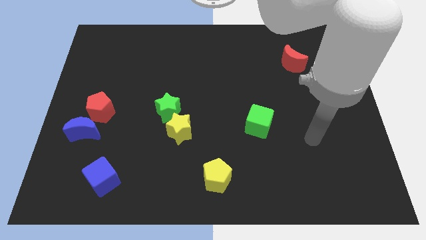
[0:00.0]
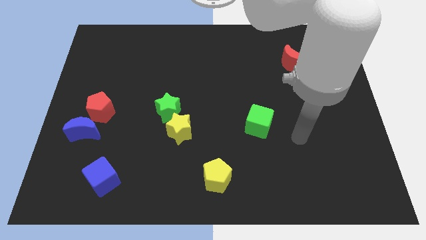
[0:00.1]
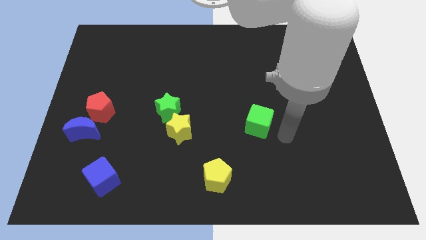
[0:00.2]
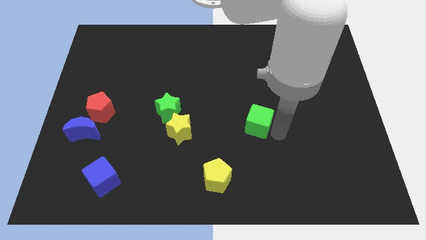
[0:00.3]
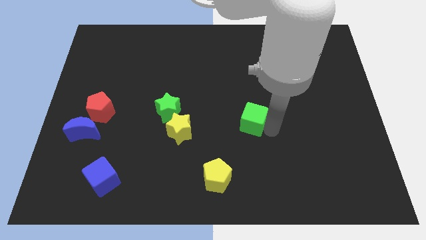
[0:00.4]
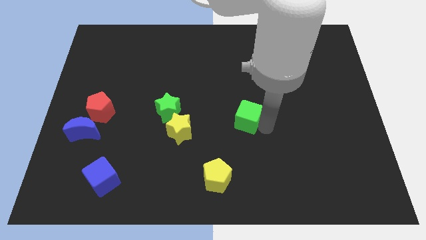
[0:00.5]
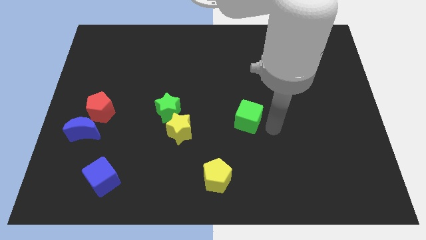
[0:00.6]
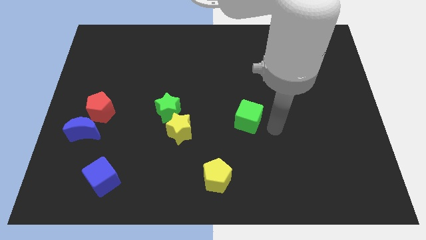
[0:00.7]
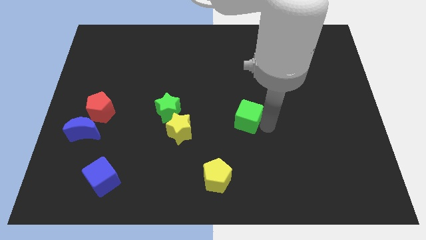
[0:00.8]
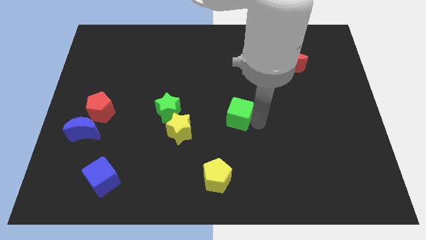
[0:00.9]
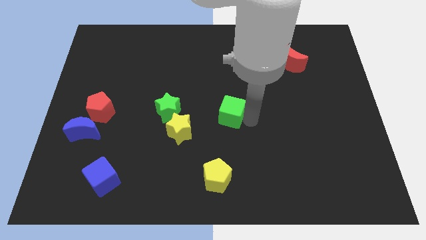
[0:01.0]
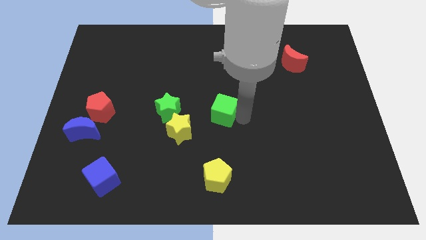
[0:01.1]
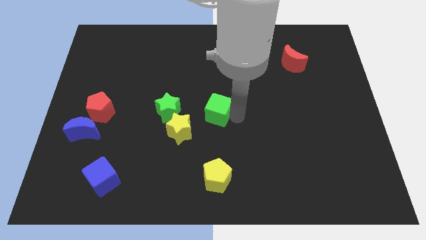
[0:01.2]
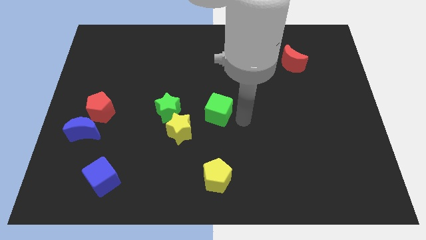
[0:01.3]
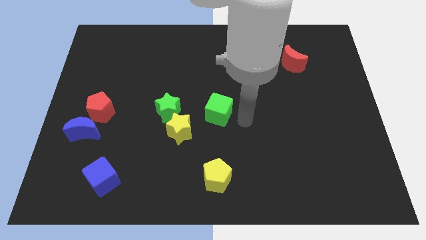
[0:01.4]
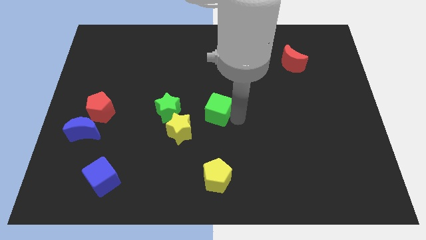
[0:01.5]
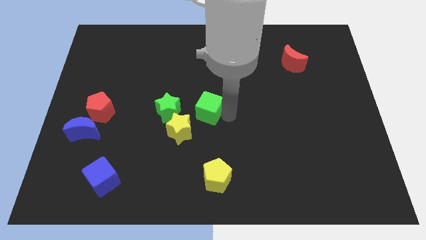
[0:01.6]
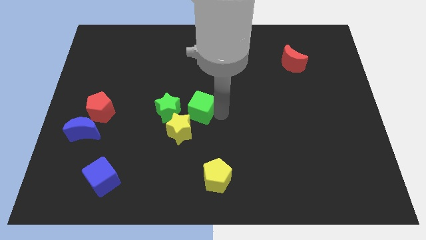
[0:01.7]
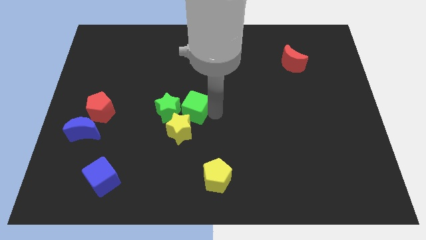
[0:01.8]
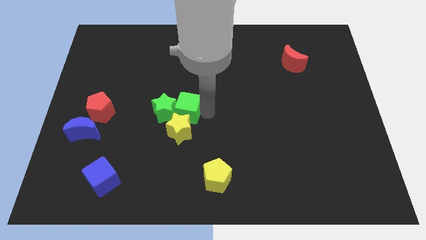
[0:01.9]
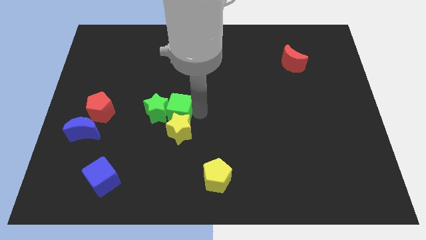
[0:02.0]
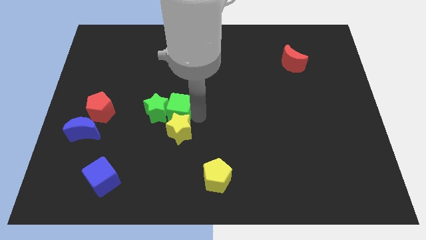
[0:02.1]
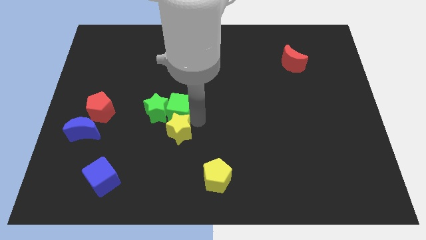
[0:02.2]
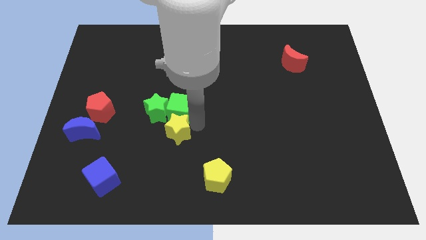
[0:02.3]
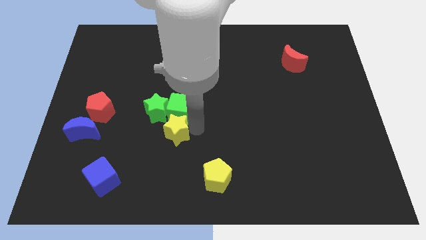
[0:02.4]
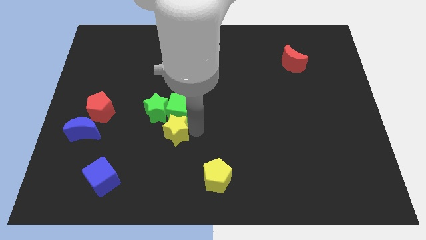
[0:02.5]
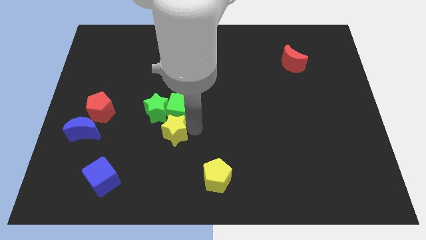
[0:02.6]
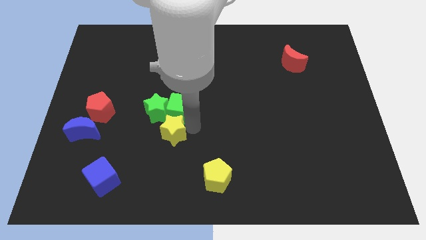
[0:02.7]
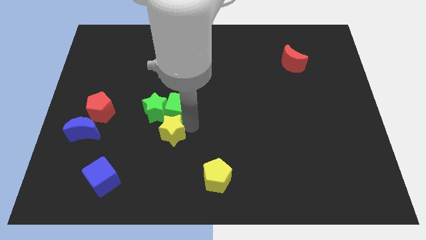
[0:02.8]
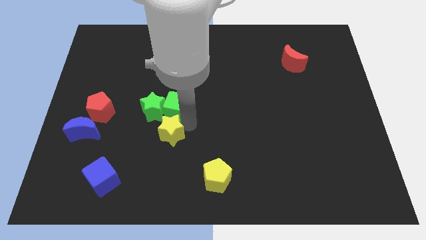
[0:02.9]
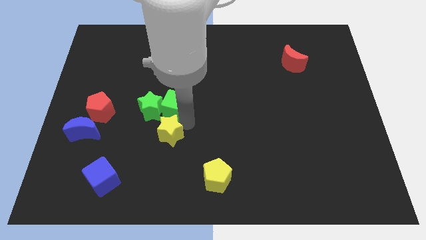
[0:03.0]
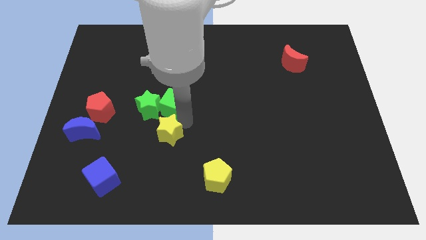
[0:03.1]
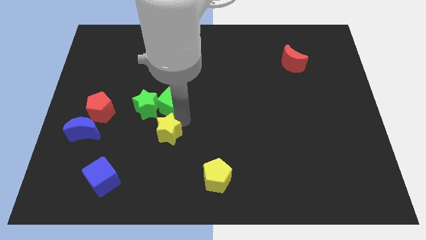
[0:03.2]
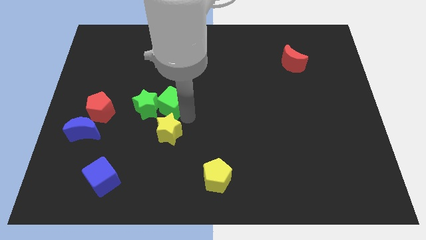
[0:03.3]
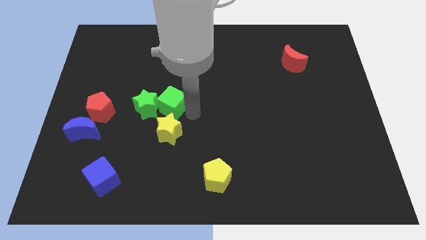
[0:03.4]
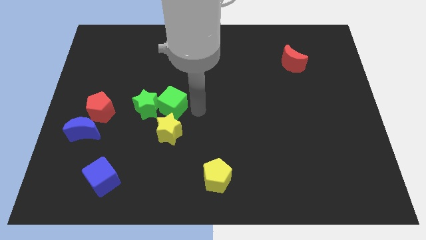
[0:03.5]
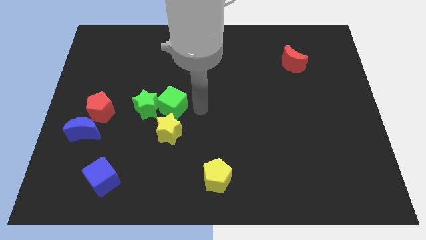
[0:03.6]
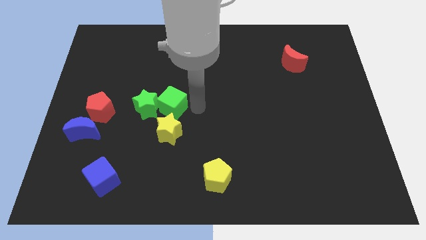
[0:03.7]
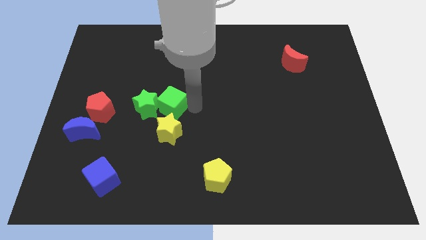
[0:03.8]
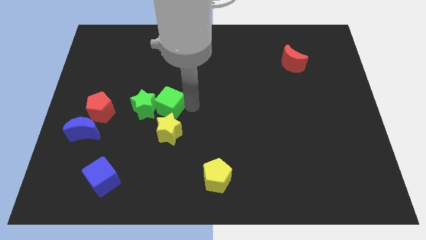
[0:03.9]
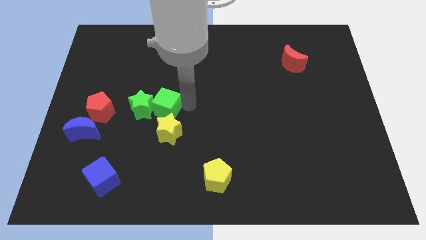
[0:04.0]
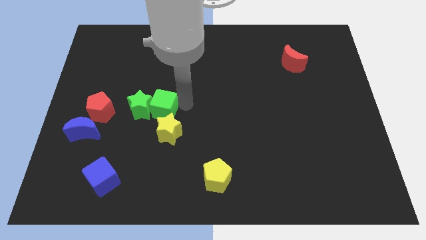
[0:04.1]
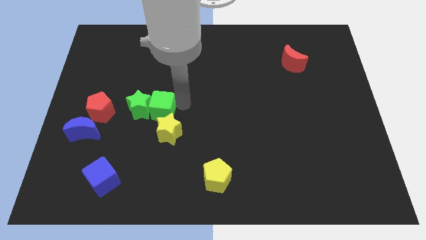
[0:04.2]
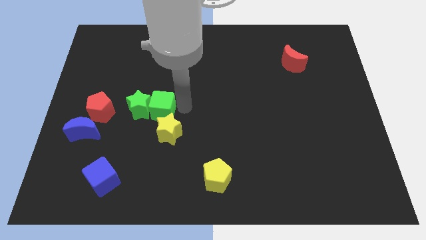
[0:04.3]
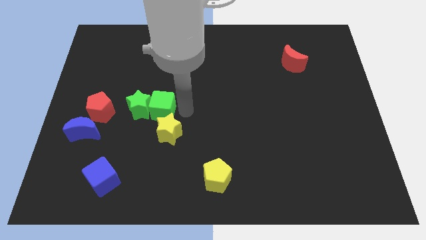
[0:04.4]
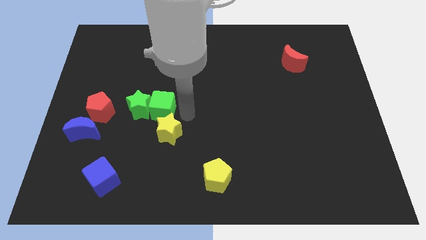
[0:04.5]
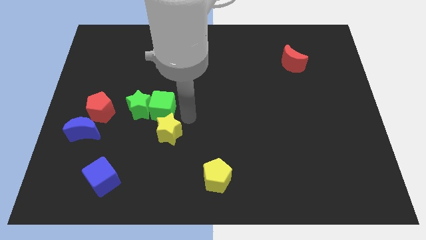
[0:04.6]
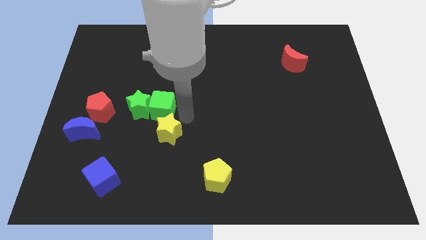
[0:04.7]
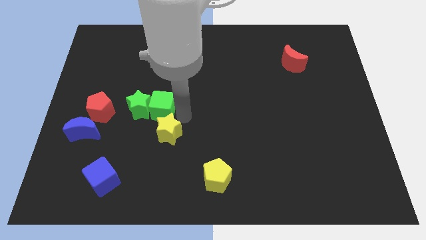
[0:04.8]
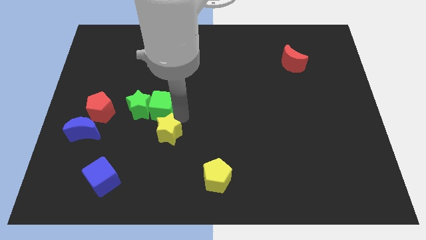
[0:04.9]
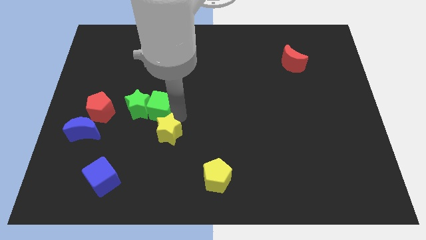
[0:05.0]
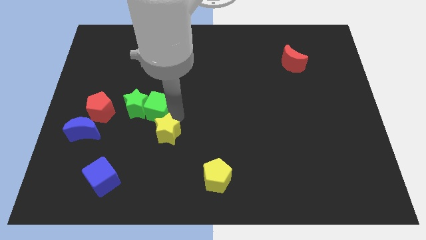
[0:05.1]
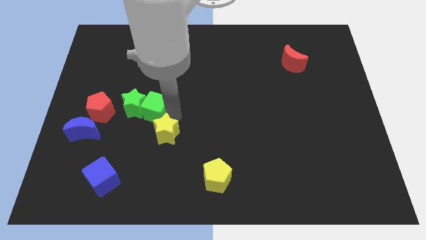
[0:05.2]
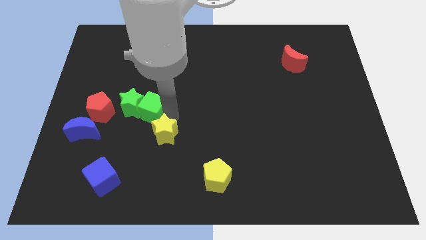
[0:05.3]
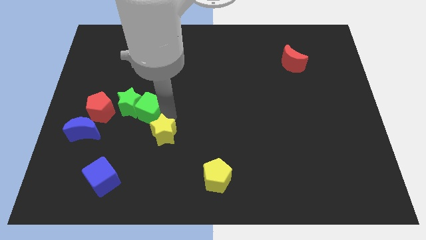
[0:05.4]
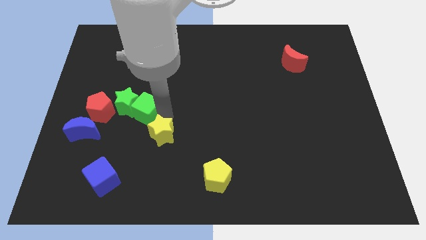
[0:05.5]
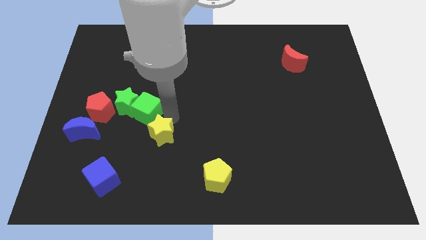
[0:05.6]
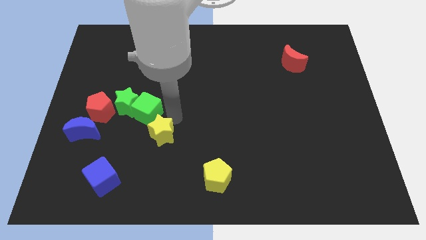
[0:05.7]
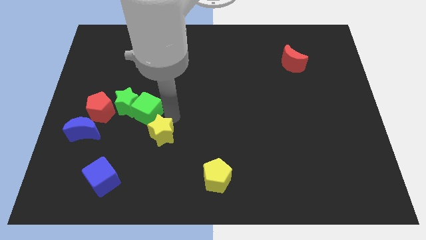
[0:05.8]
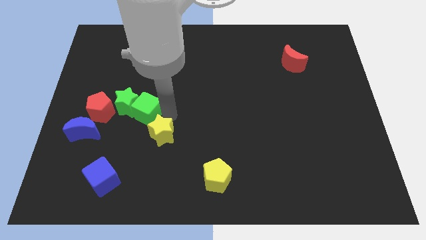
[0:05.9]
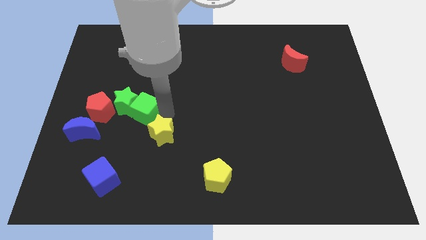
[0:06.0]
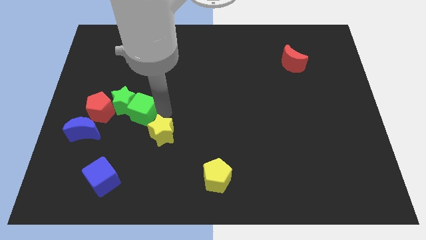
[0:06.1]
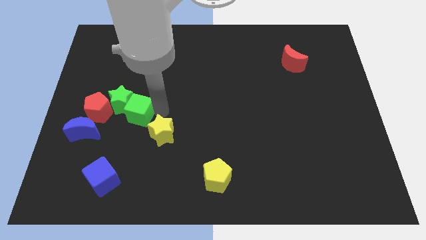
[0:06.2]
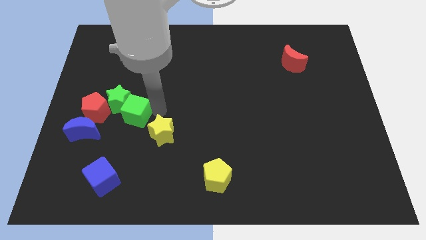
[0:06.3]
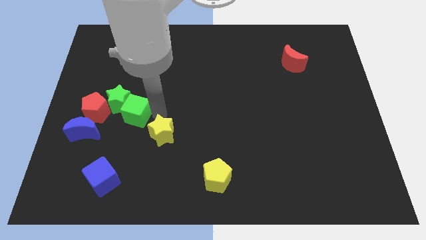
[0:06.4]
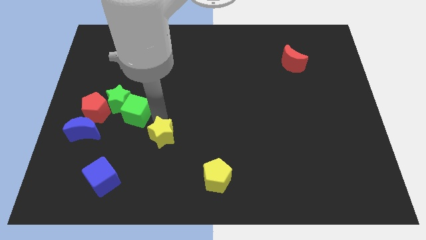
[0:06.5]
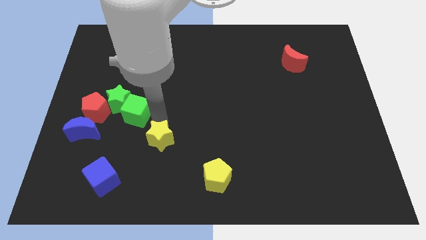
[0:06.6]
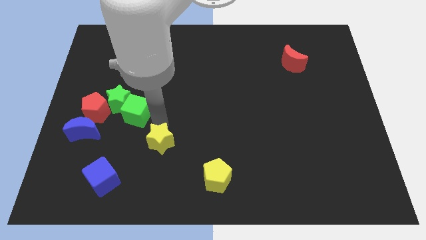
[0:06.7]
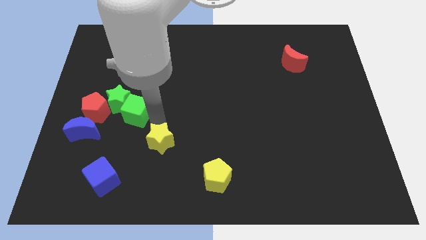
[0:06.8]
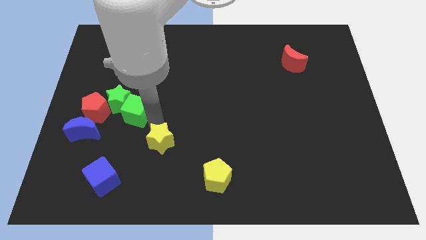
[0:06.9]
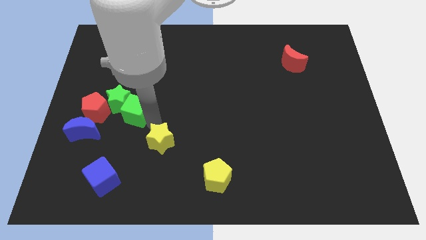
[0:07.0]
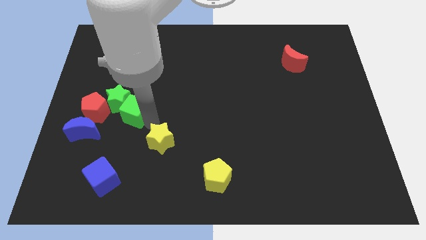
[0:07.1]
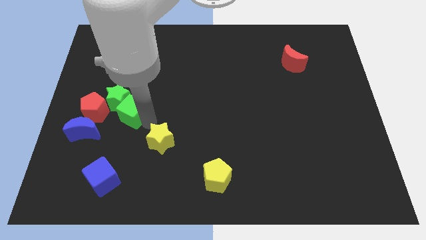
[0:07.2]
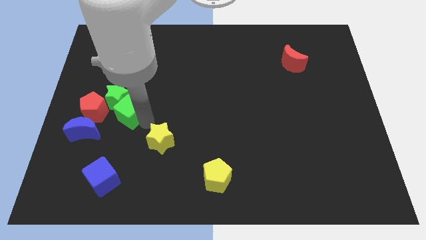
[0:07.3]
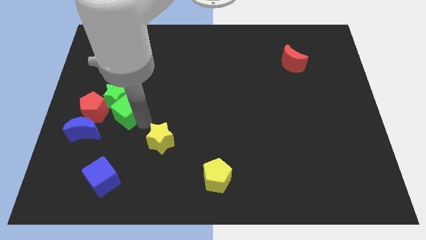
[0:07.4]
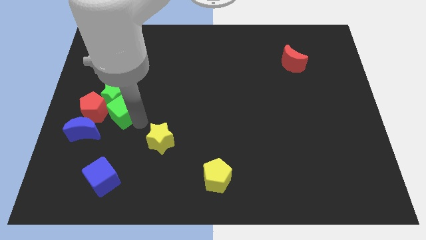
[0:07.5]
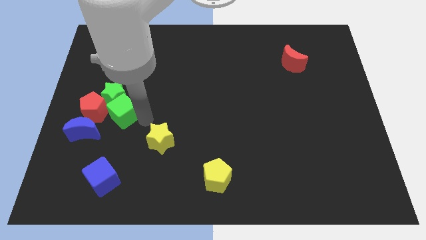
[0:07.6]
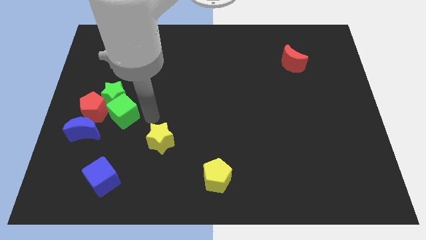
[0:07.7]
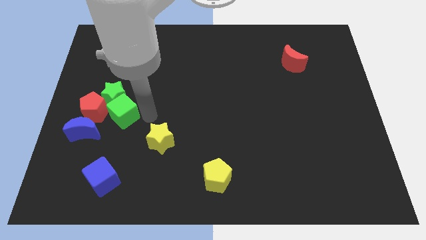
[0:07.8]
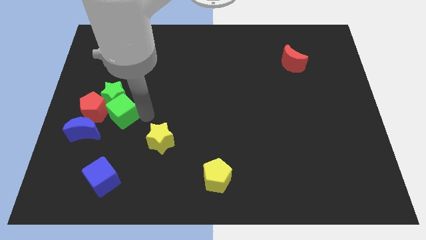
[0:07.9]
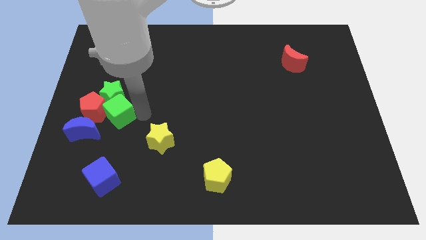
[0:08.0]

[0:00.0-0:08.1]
push the green cube close to the red pentagon
